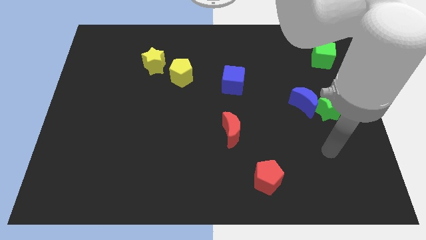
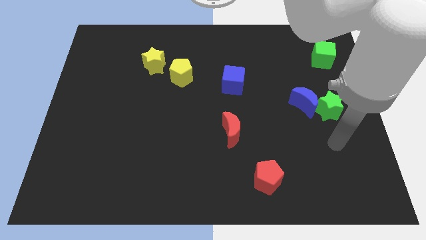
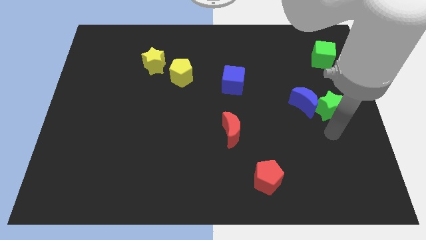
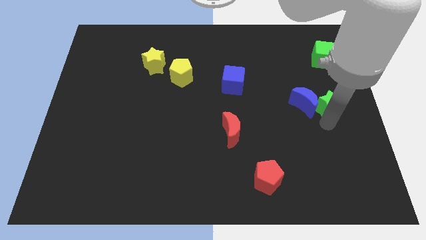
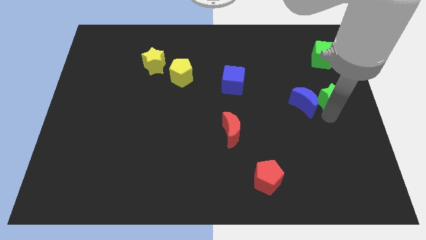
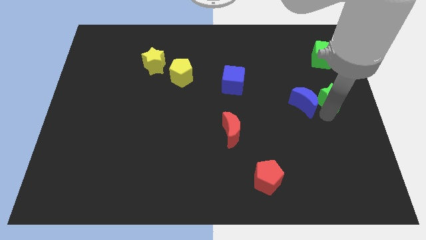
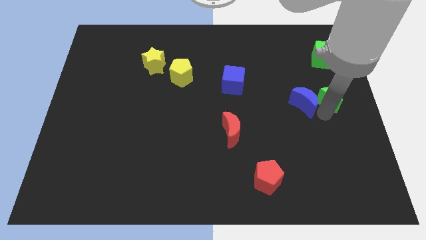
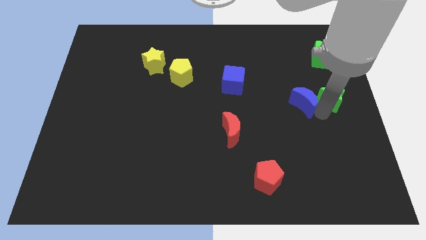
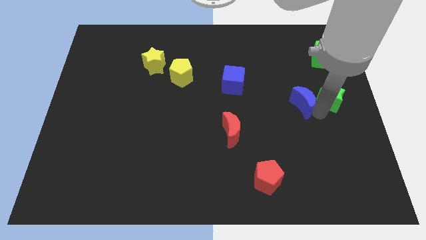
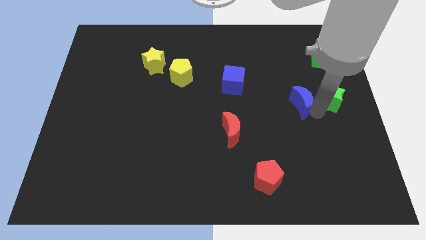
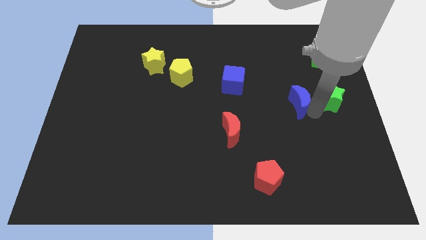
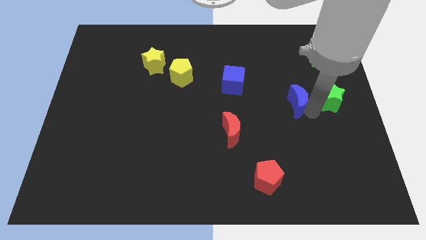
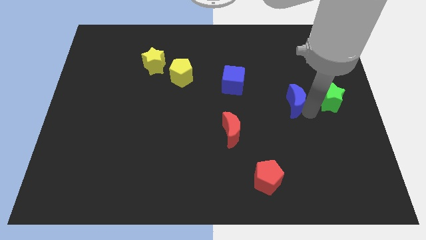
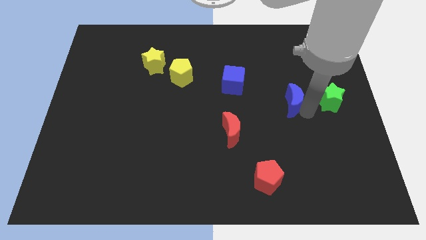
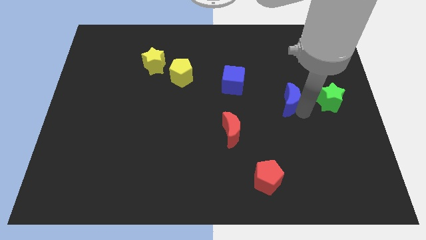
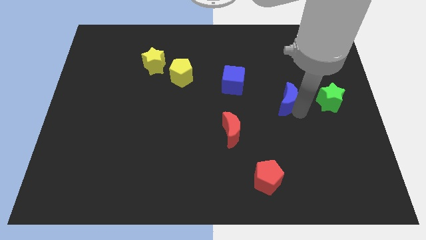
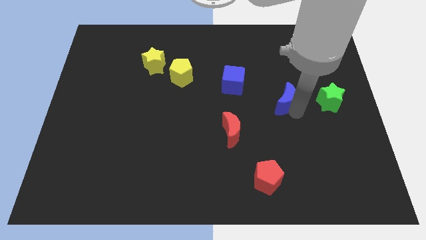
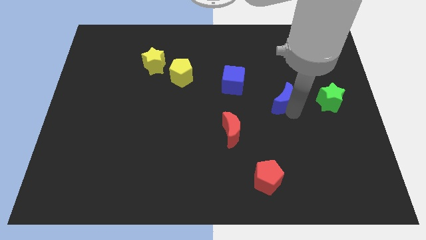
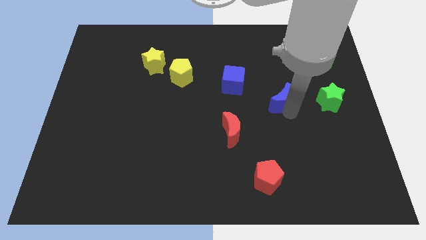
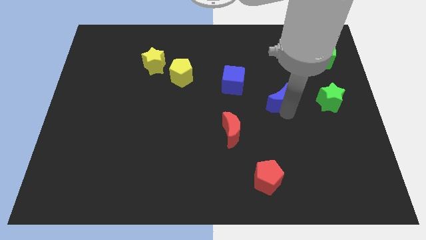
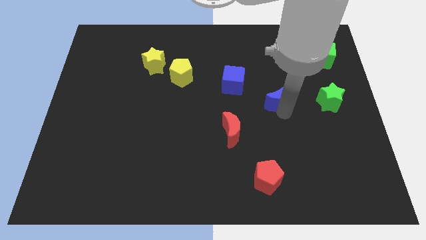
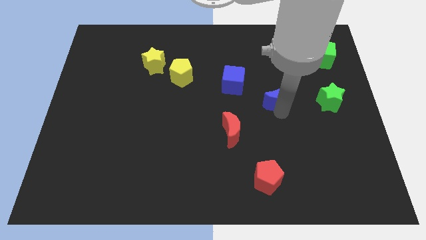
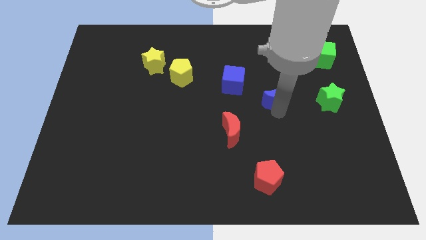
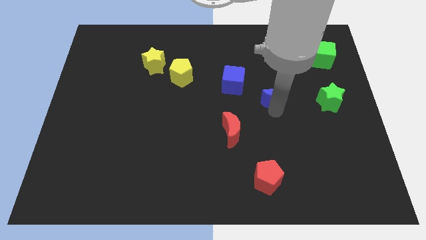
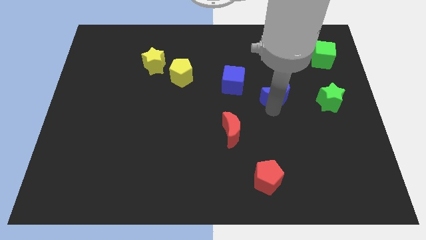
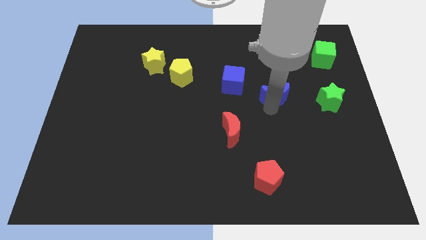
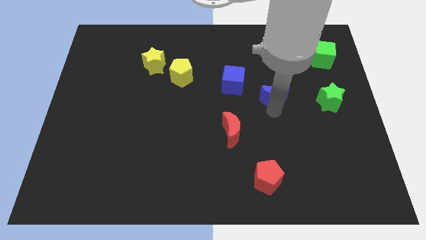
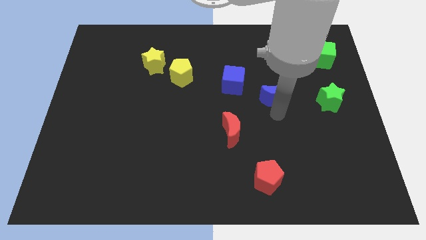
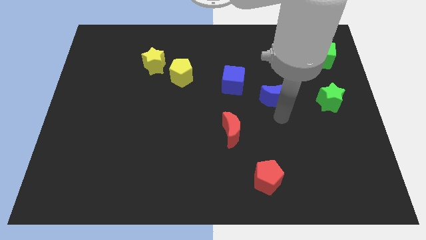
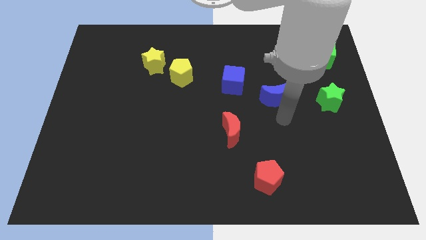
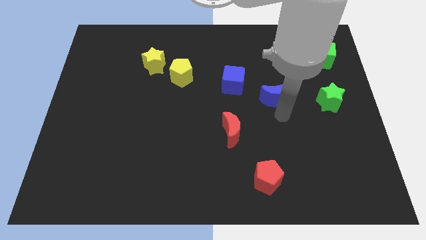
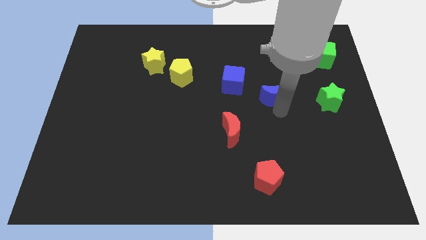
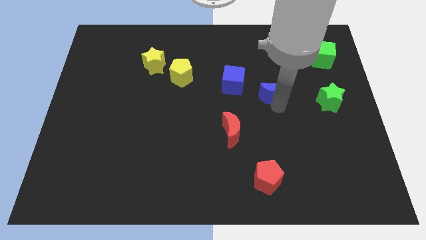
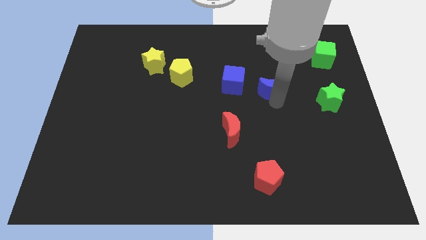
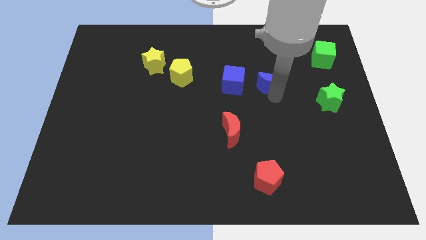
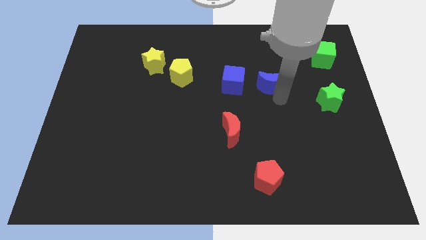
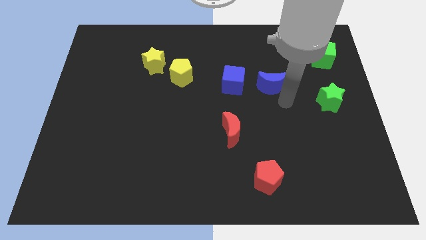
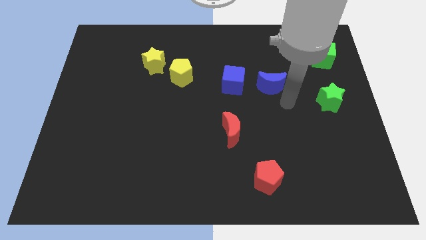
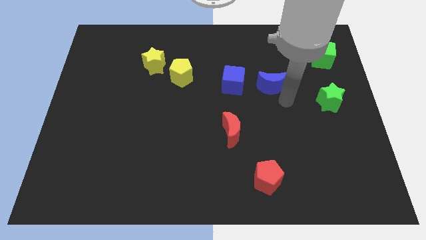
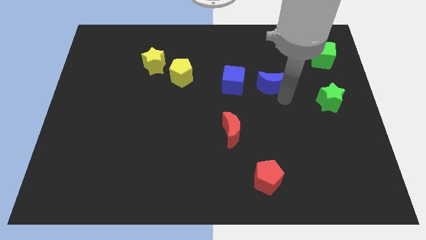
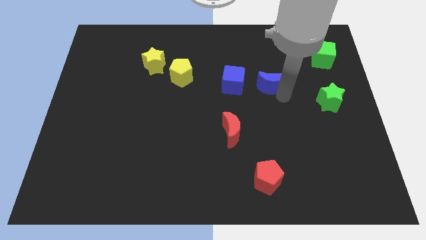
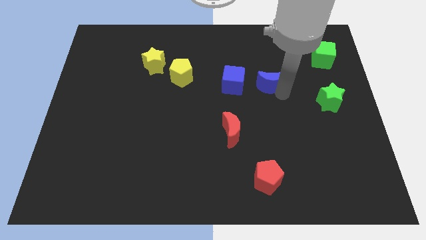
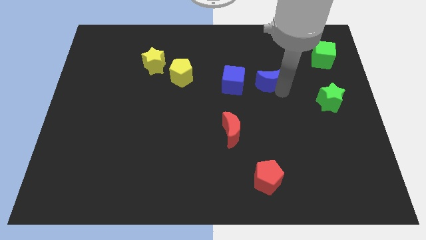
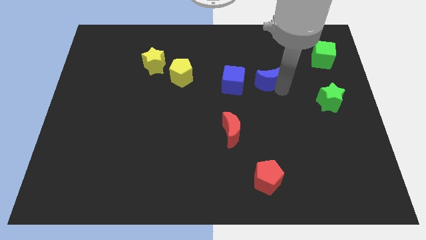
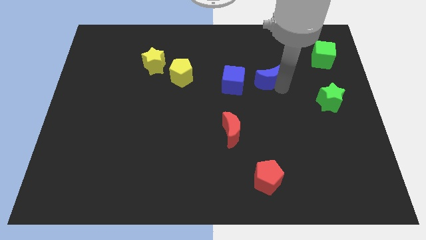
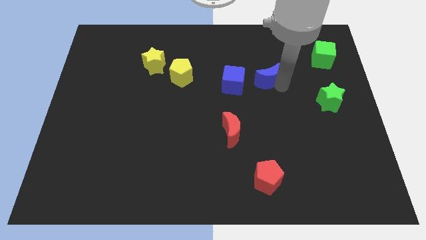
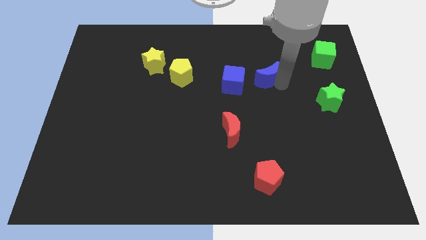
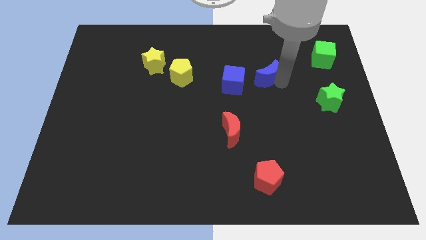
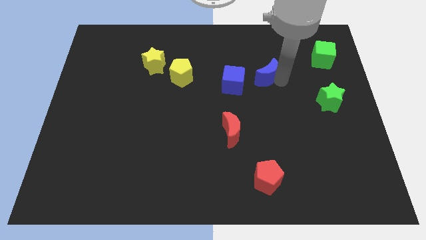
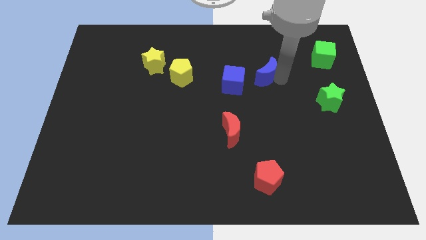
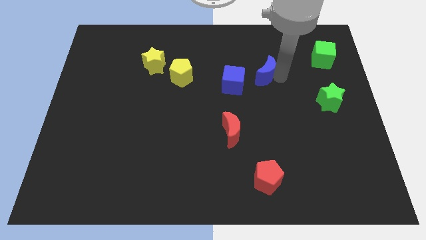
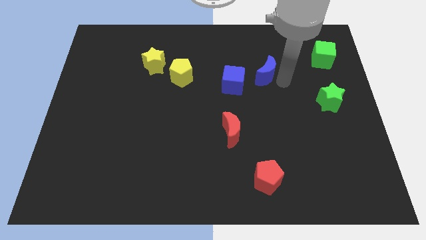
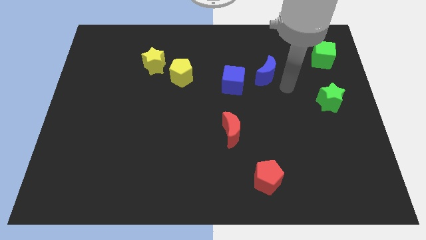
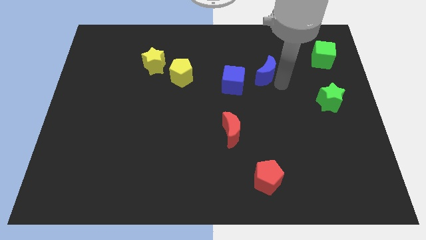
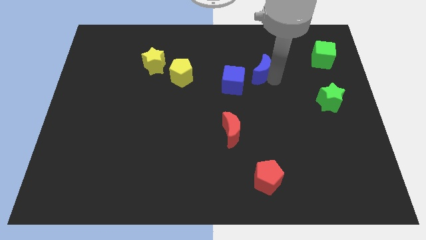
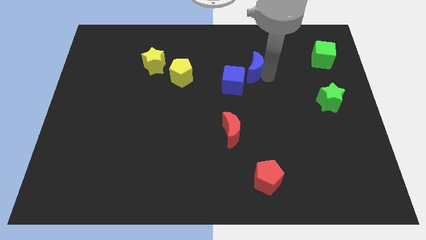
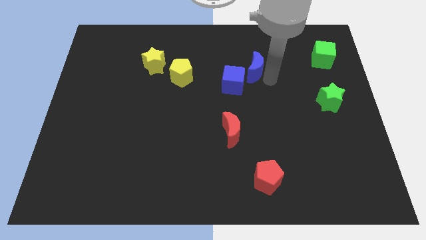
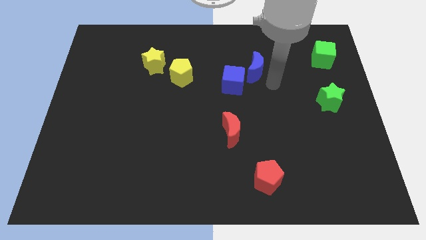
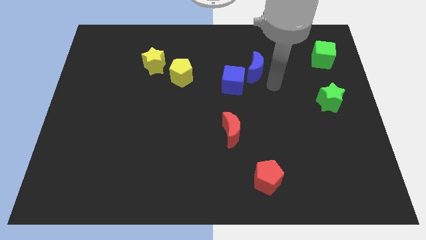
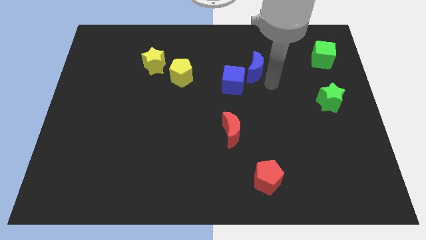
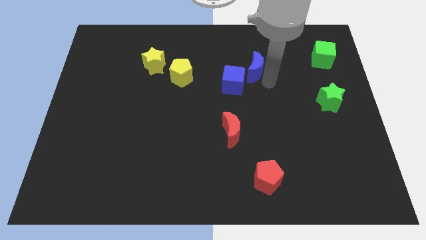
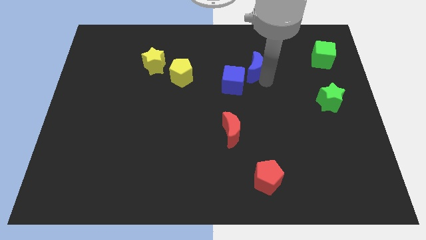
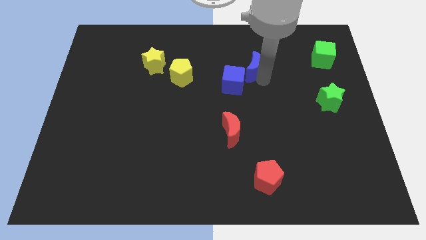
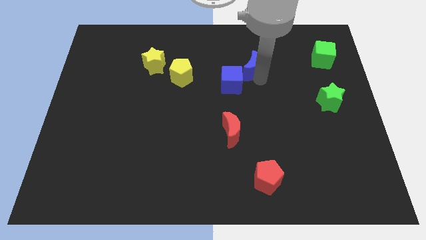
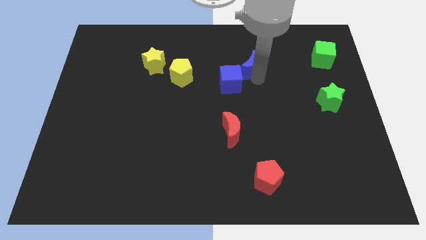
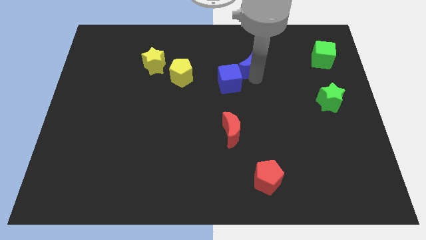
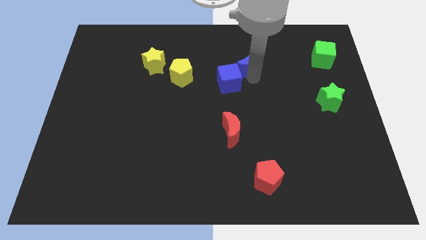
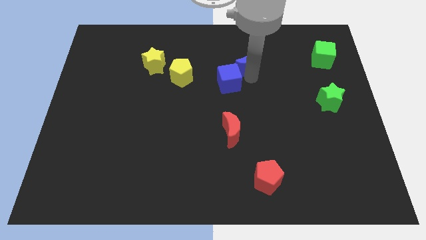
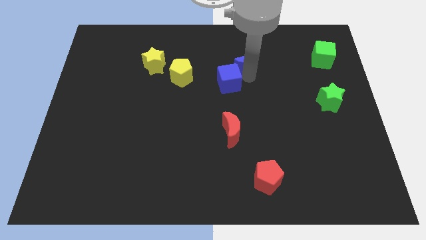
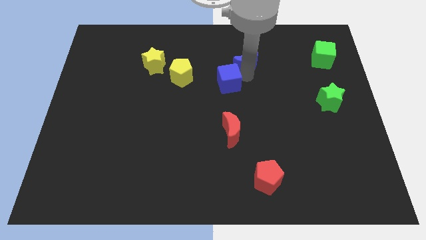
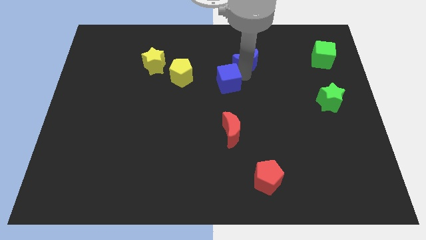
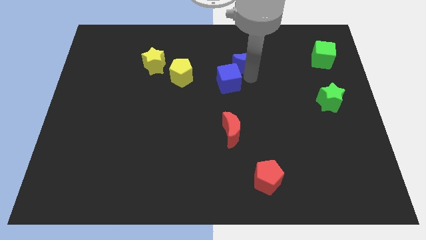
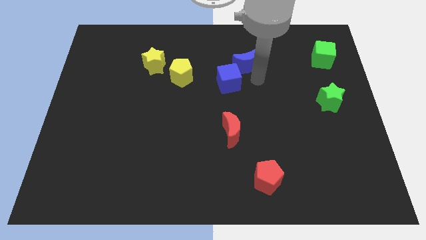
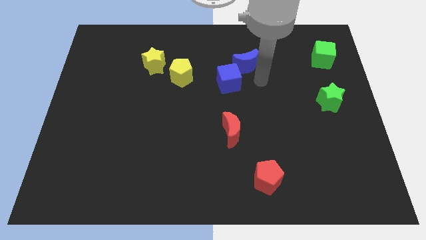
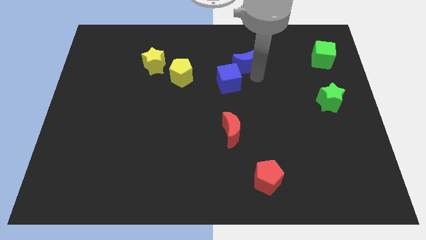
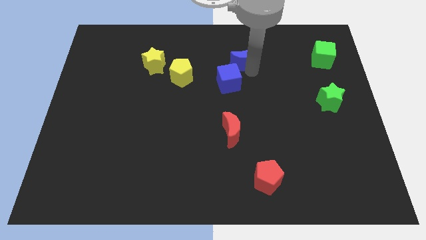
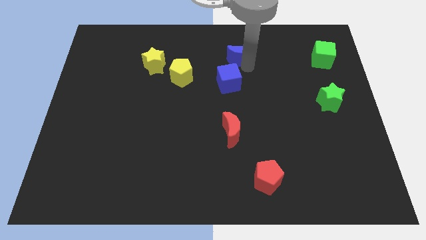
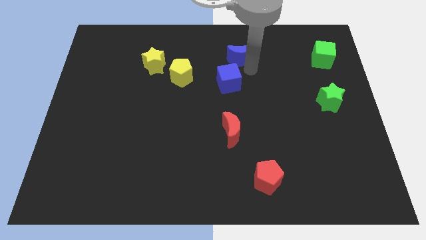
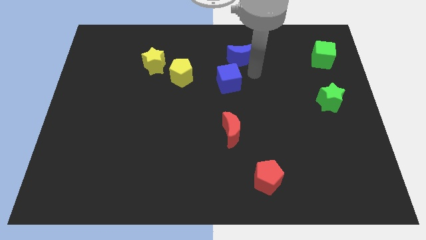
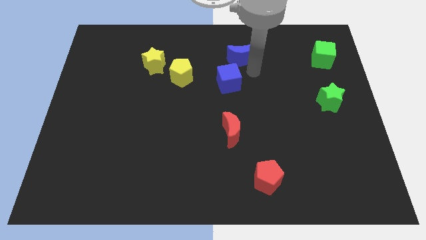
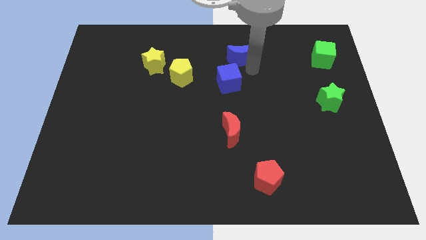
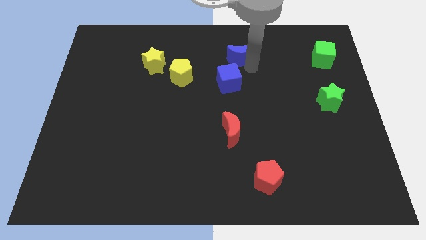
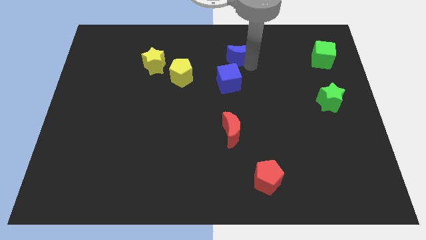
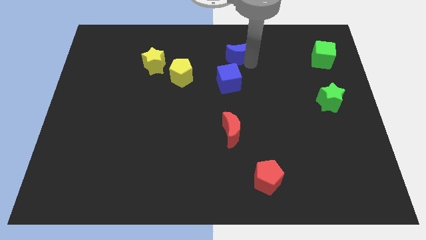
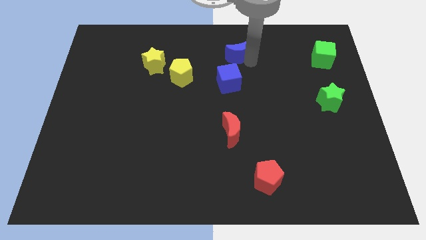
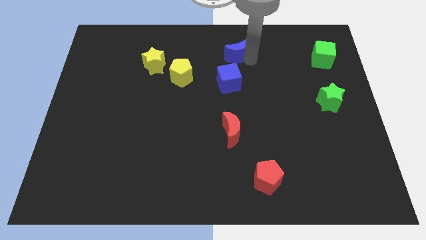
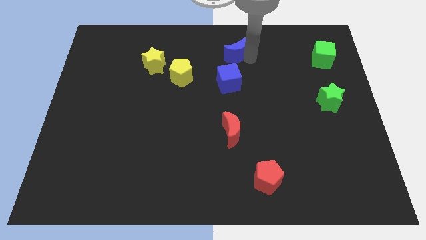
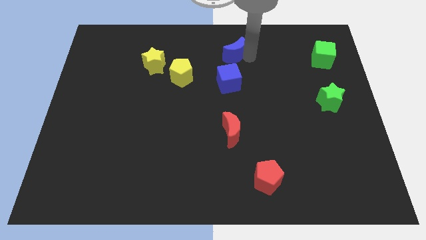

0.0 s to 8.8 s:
put the blue moon to the towards your base
